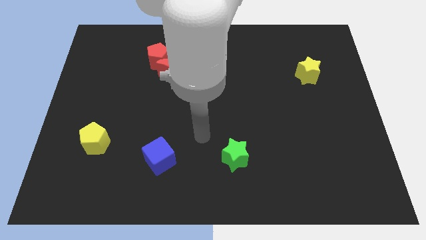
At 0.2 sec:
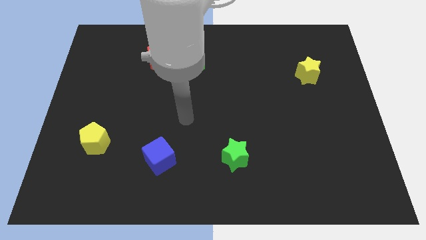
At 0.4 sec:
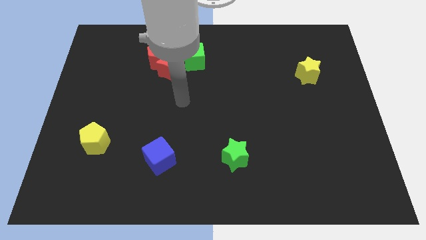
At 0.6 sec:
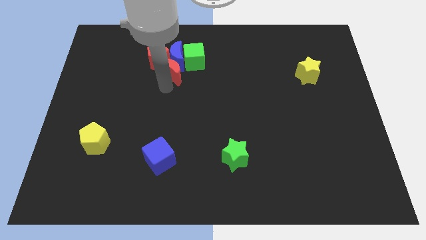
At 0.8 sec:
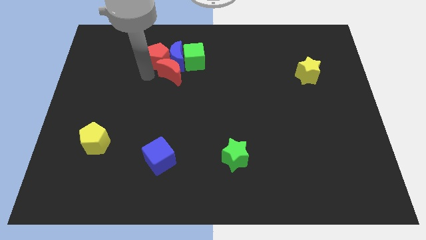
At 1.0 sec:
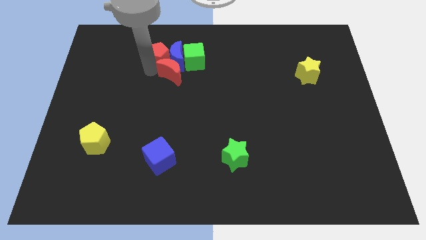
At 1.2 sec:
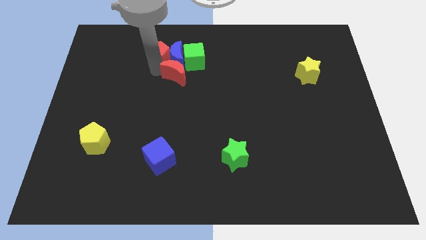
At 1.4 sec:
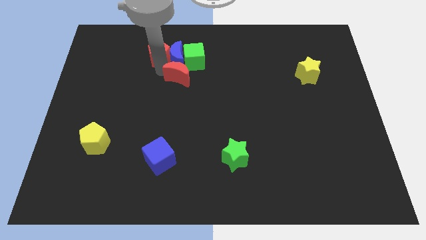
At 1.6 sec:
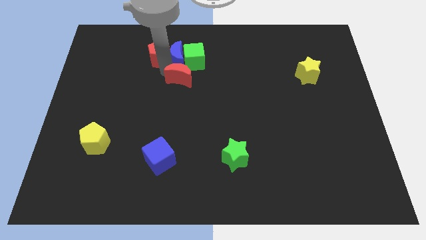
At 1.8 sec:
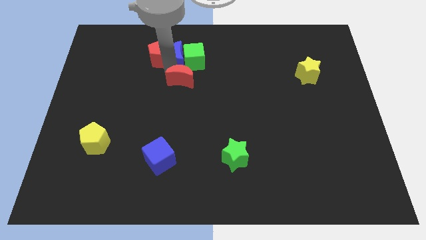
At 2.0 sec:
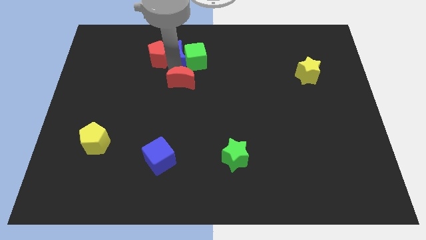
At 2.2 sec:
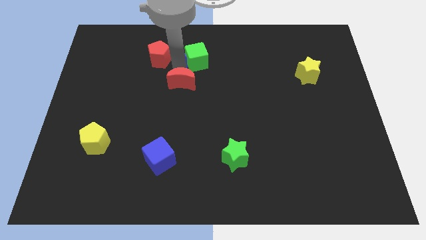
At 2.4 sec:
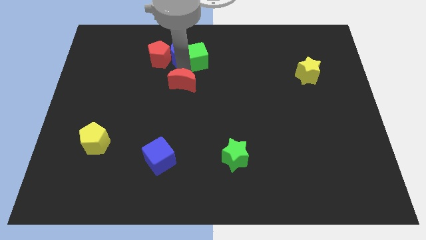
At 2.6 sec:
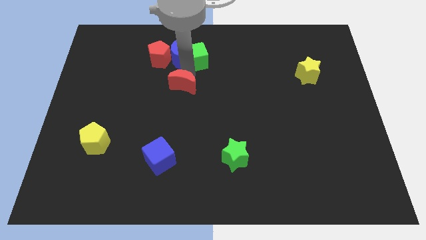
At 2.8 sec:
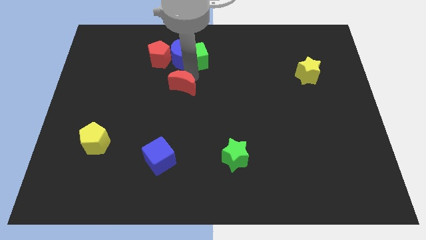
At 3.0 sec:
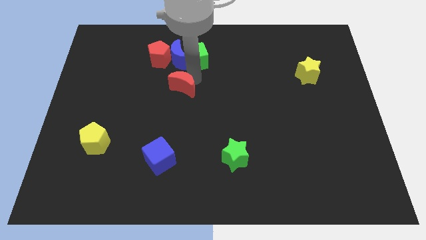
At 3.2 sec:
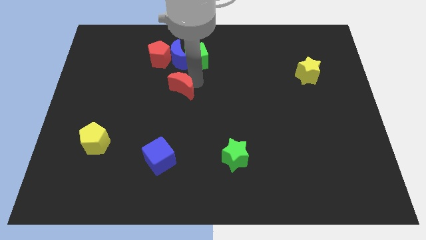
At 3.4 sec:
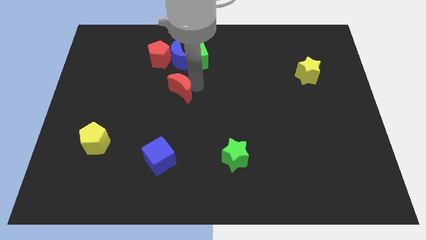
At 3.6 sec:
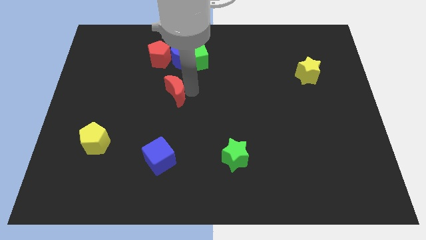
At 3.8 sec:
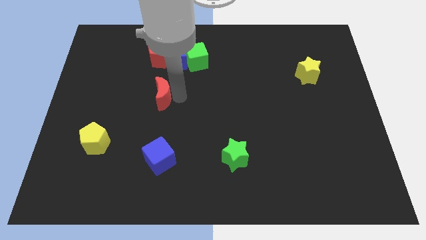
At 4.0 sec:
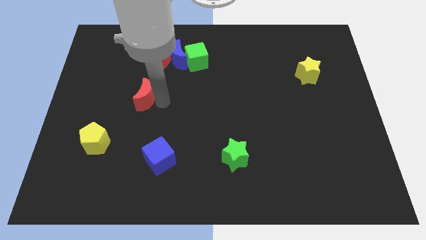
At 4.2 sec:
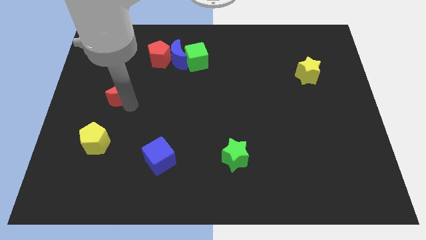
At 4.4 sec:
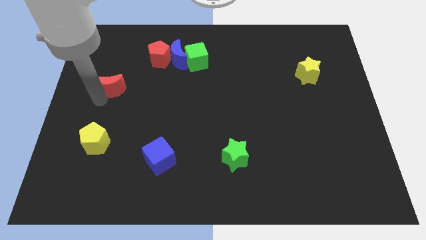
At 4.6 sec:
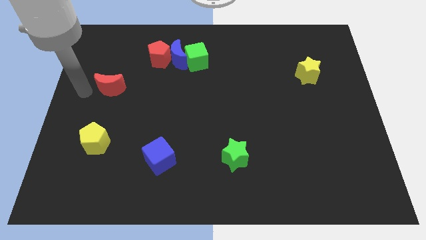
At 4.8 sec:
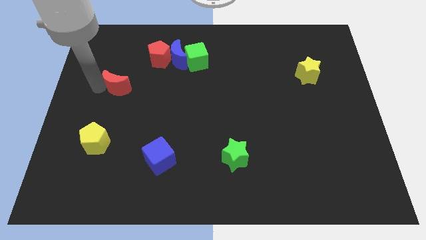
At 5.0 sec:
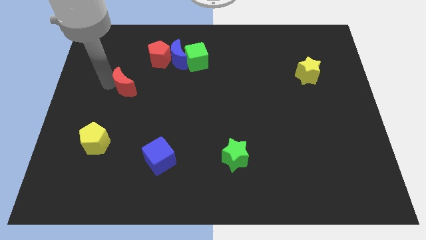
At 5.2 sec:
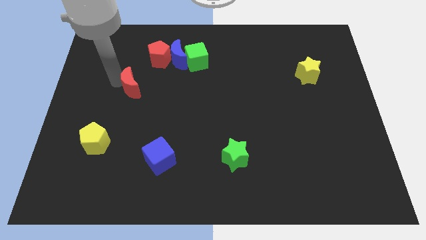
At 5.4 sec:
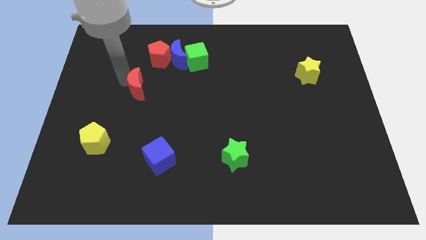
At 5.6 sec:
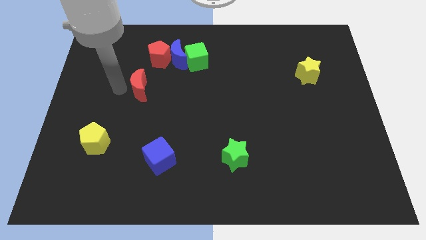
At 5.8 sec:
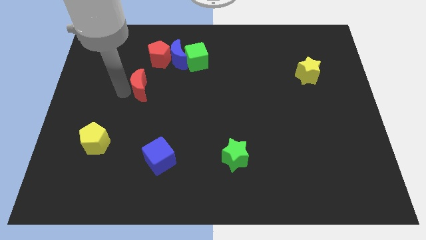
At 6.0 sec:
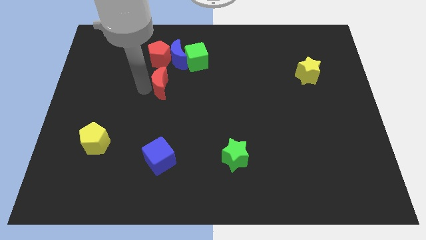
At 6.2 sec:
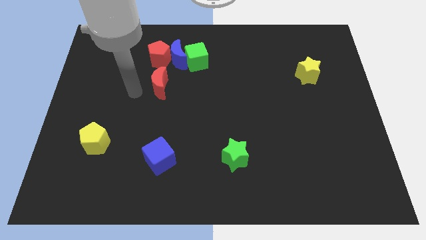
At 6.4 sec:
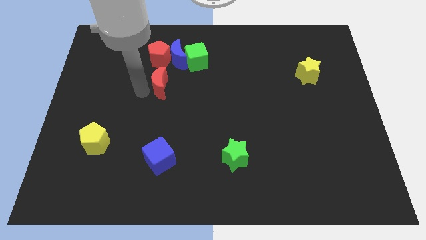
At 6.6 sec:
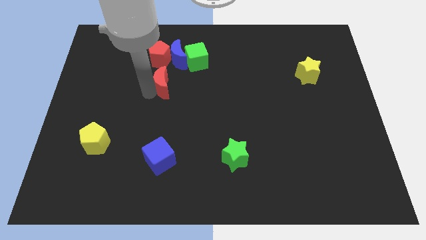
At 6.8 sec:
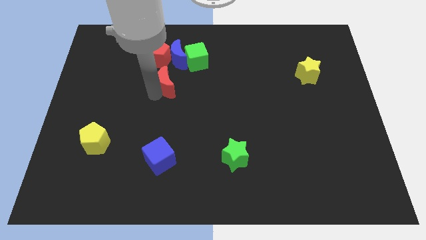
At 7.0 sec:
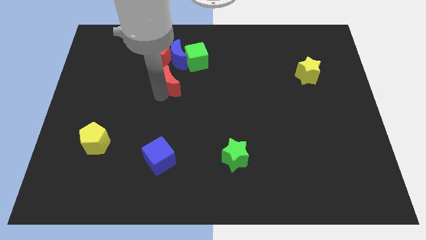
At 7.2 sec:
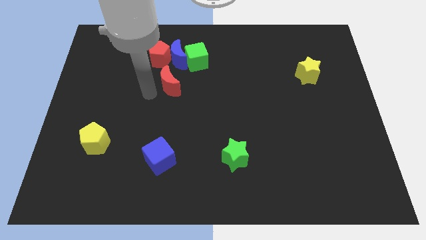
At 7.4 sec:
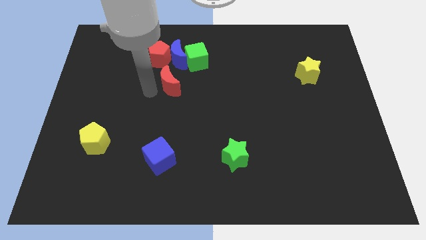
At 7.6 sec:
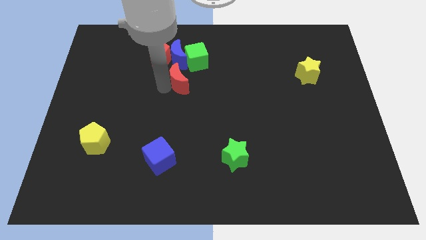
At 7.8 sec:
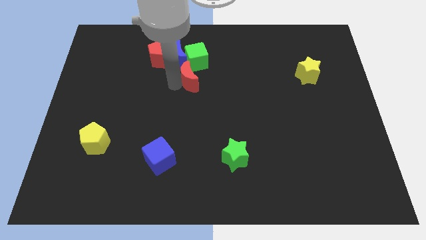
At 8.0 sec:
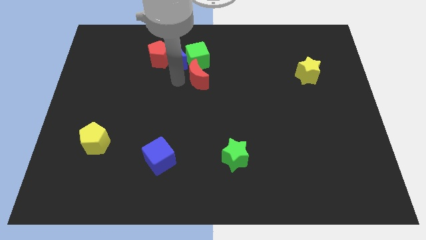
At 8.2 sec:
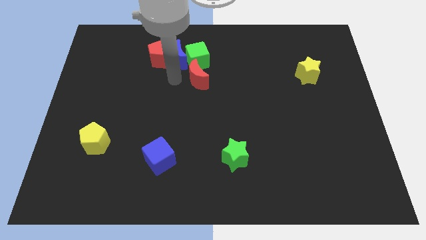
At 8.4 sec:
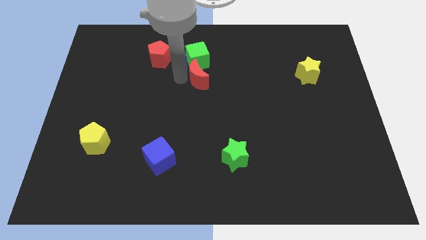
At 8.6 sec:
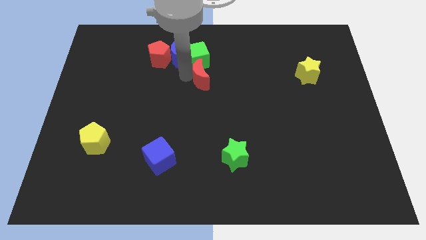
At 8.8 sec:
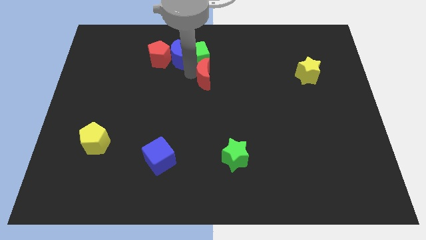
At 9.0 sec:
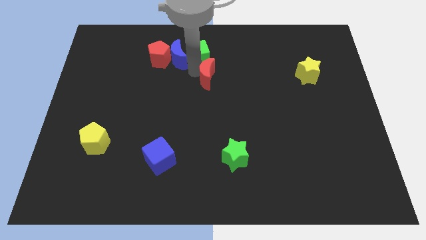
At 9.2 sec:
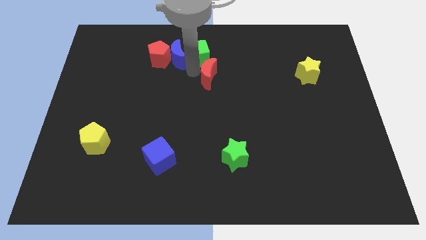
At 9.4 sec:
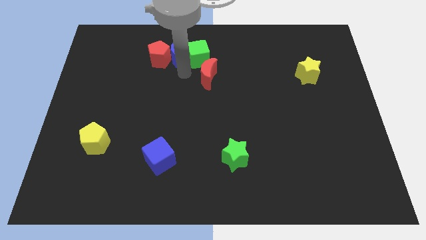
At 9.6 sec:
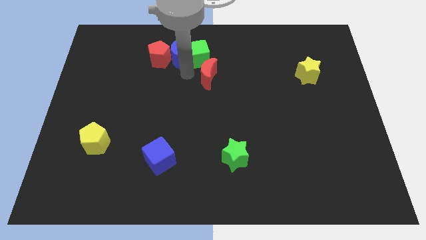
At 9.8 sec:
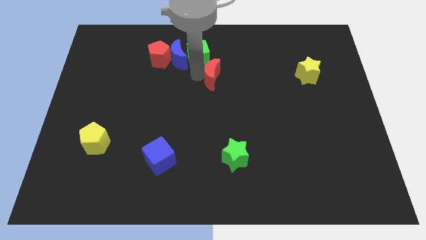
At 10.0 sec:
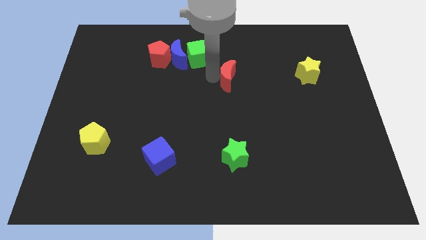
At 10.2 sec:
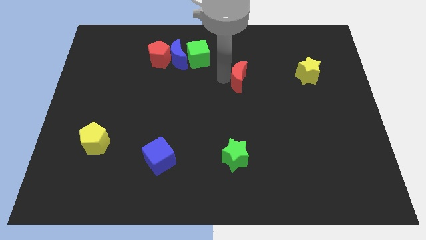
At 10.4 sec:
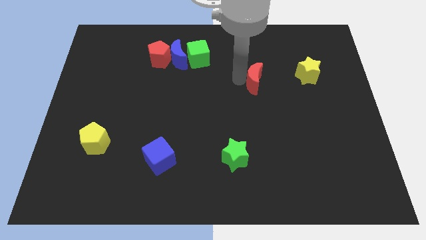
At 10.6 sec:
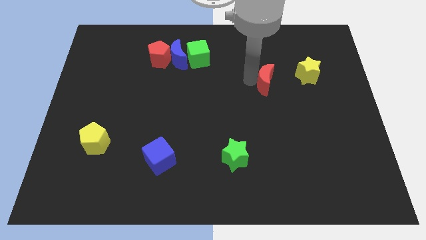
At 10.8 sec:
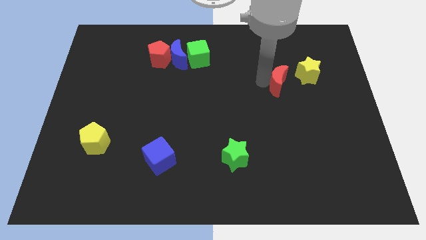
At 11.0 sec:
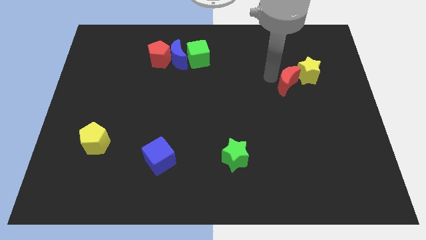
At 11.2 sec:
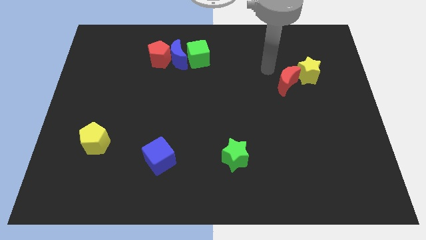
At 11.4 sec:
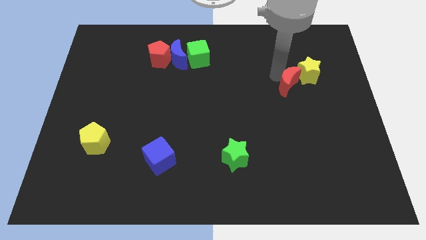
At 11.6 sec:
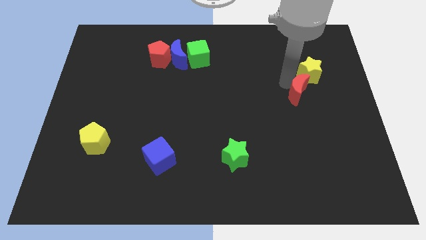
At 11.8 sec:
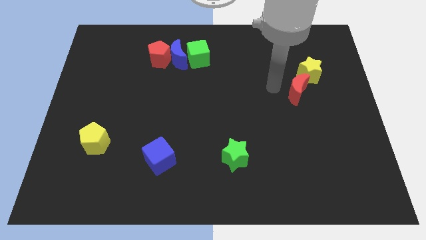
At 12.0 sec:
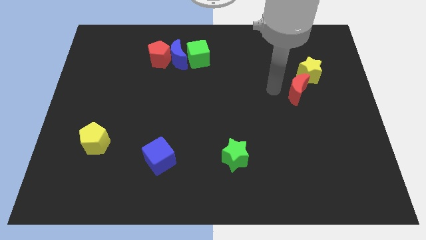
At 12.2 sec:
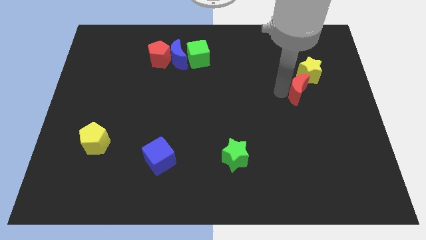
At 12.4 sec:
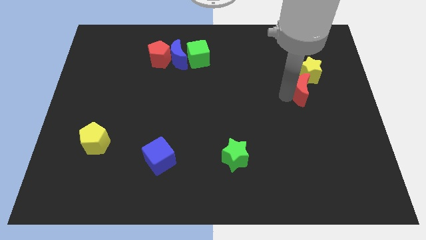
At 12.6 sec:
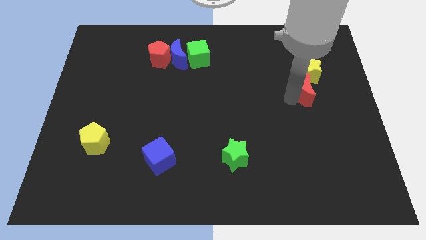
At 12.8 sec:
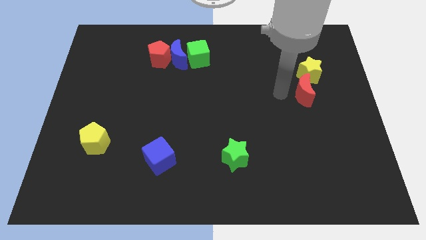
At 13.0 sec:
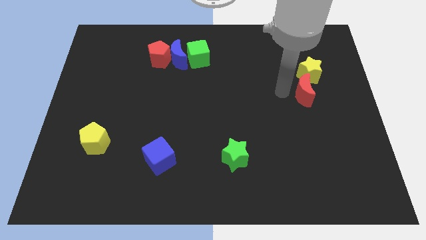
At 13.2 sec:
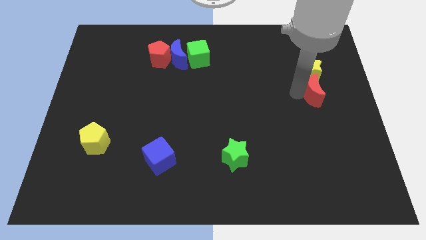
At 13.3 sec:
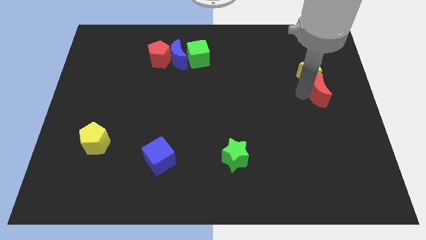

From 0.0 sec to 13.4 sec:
move the red moon to the center right
